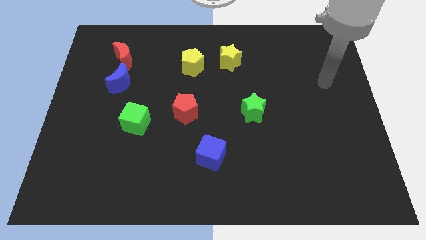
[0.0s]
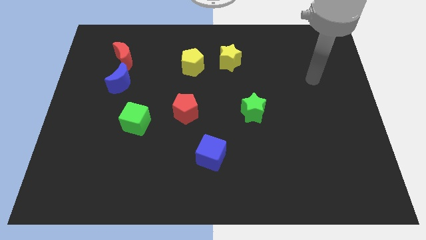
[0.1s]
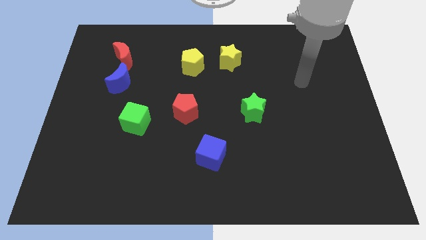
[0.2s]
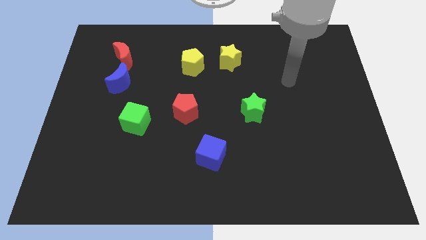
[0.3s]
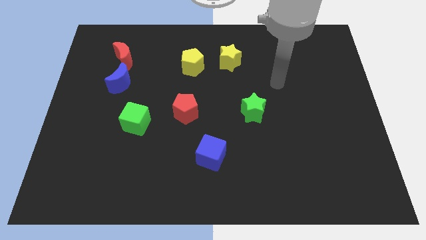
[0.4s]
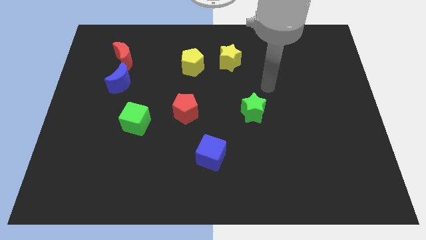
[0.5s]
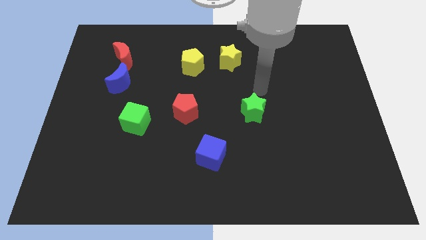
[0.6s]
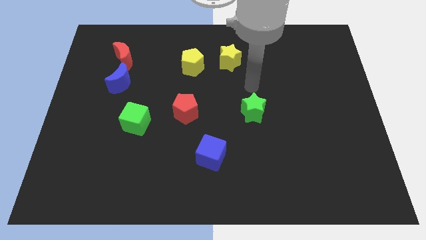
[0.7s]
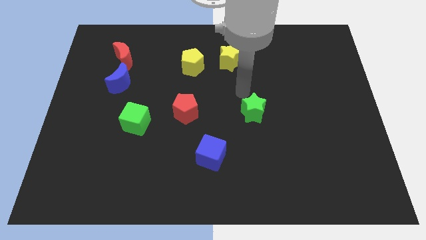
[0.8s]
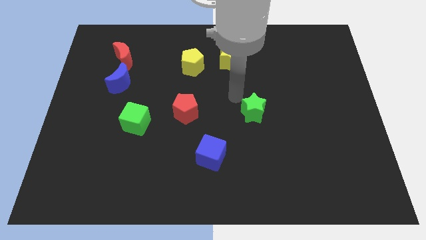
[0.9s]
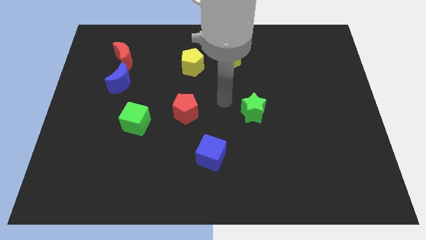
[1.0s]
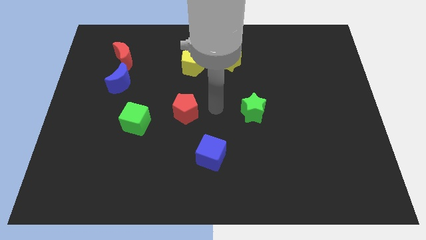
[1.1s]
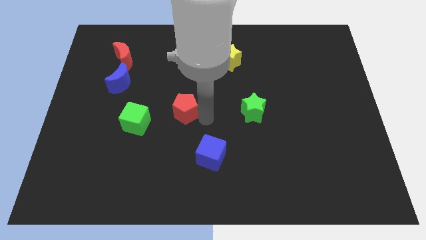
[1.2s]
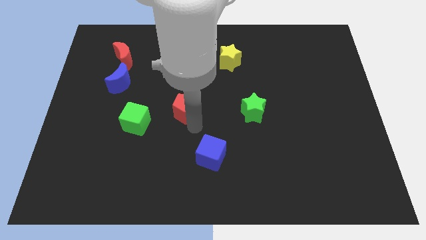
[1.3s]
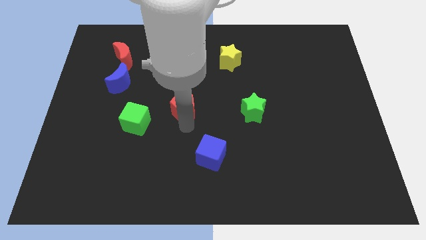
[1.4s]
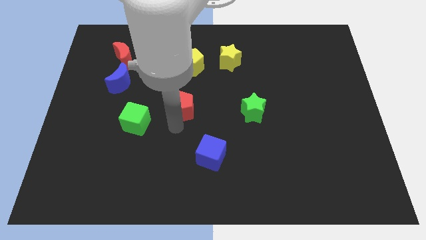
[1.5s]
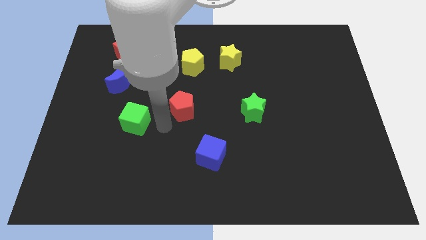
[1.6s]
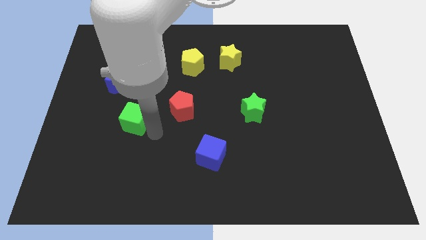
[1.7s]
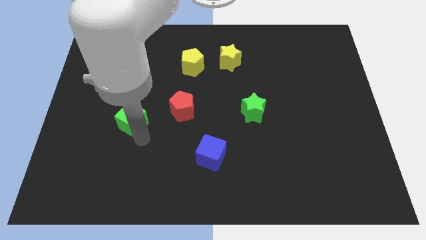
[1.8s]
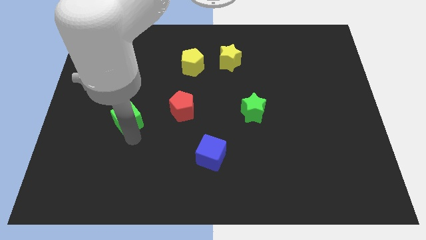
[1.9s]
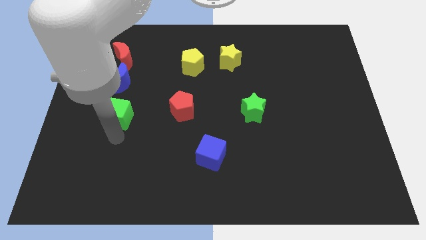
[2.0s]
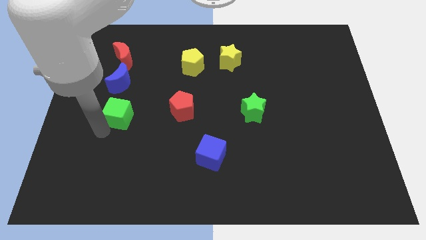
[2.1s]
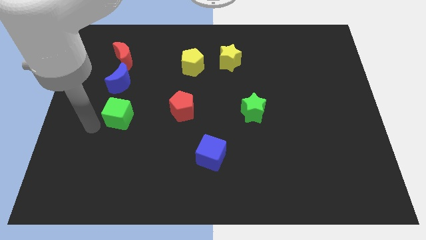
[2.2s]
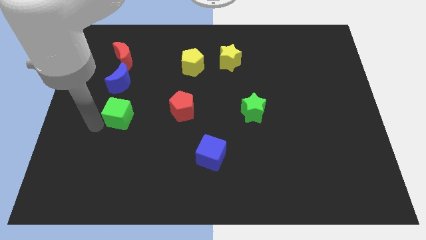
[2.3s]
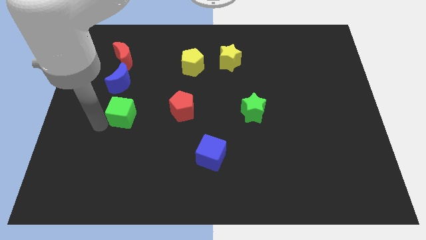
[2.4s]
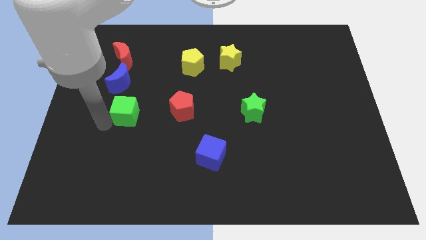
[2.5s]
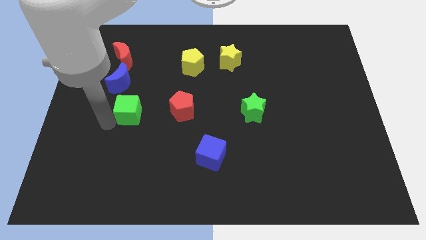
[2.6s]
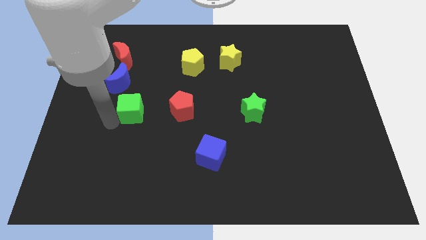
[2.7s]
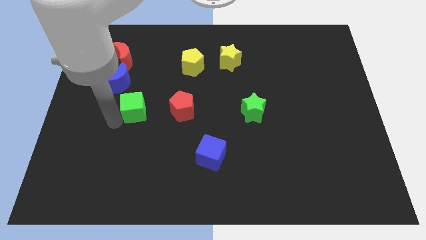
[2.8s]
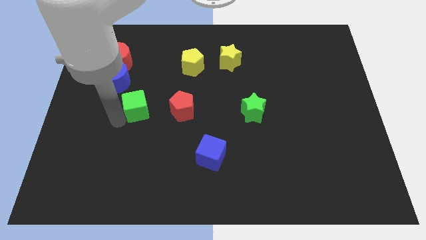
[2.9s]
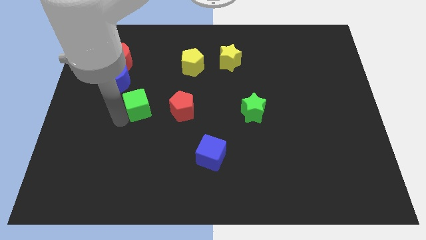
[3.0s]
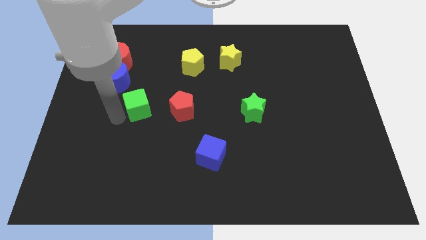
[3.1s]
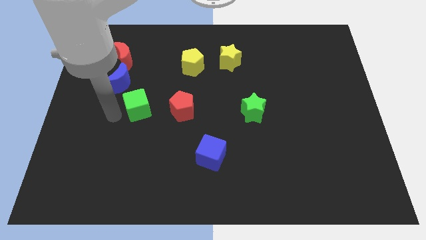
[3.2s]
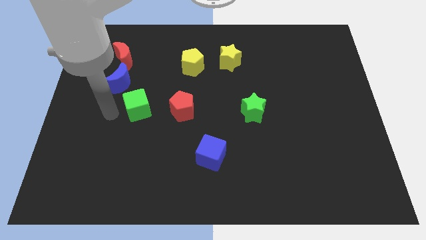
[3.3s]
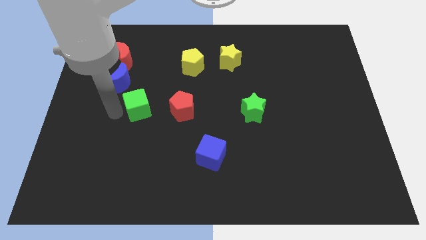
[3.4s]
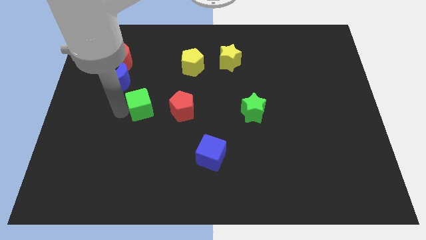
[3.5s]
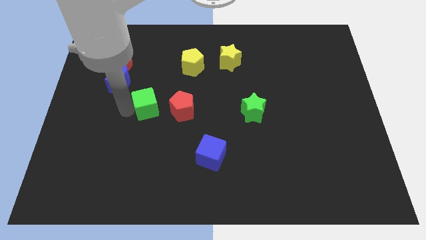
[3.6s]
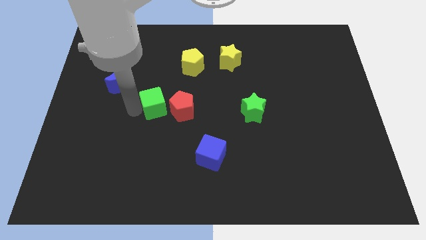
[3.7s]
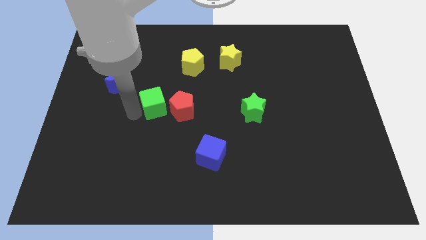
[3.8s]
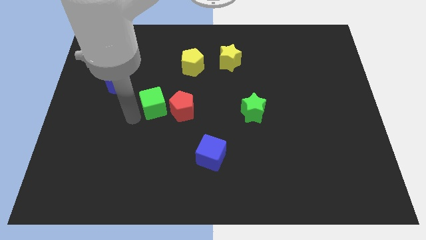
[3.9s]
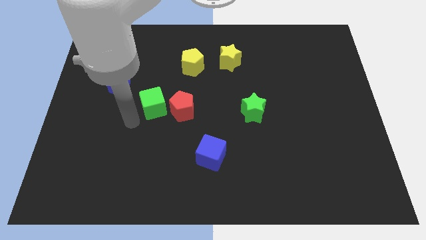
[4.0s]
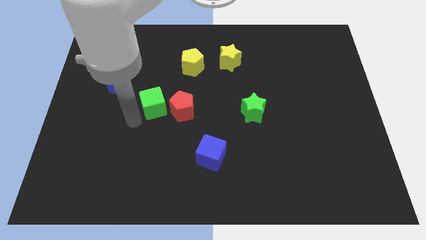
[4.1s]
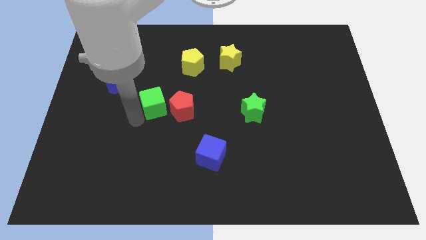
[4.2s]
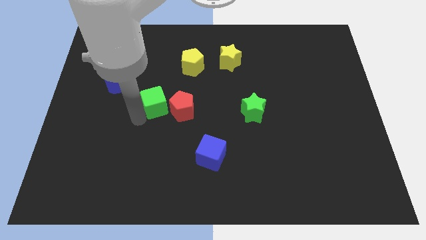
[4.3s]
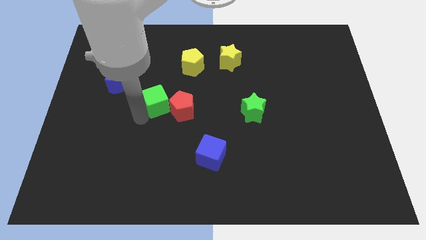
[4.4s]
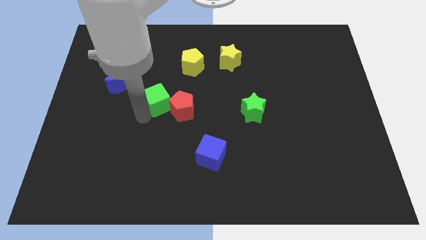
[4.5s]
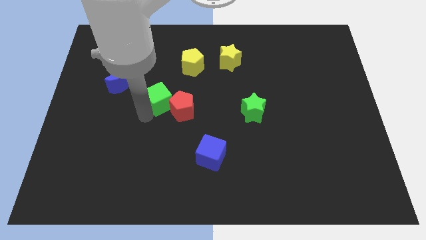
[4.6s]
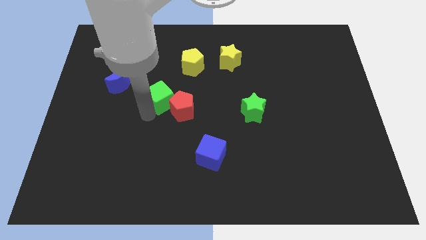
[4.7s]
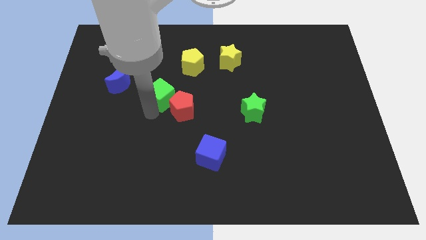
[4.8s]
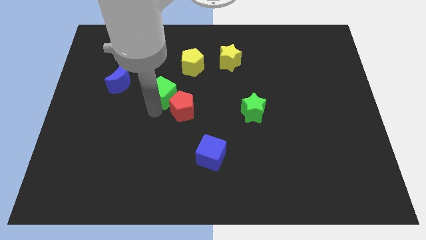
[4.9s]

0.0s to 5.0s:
push the green cube to the top side of the red pentagon

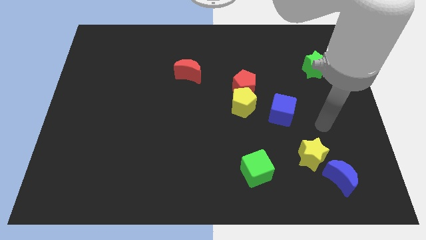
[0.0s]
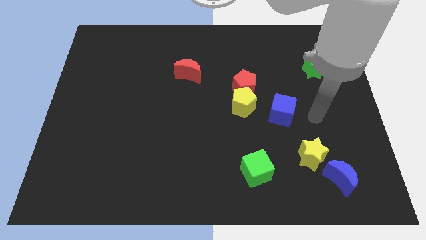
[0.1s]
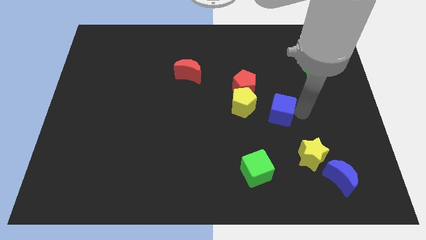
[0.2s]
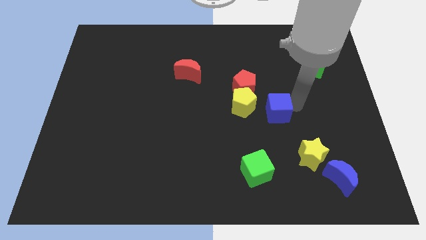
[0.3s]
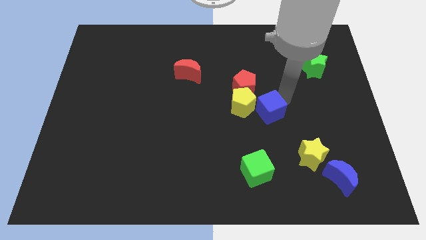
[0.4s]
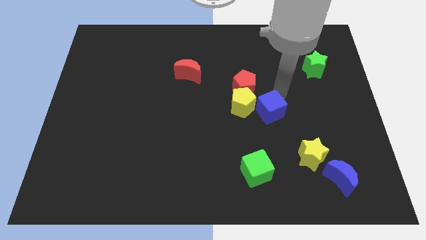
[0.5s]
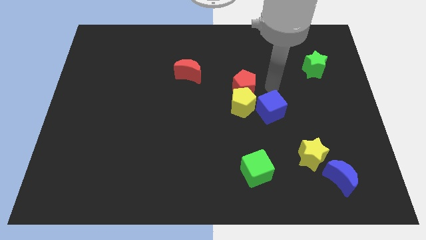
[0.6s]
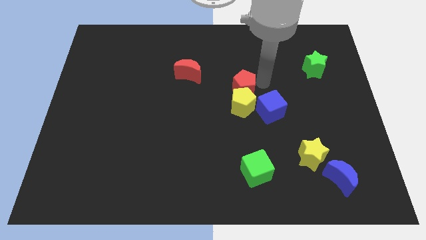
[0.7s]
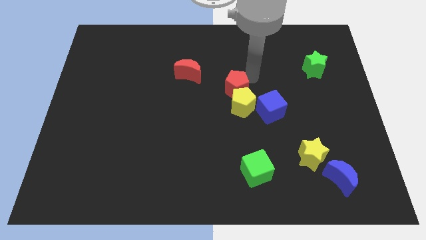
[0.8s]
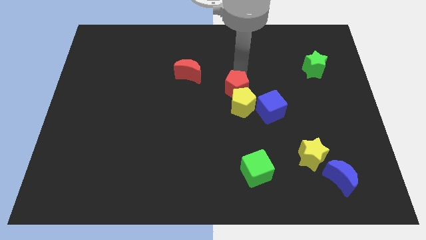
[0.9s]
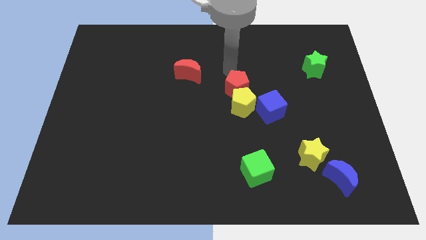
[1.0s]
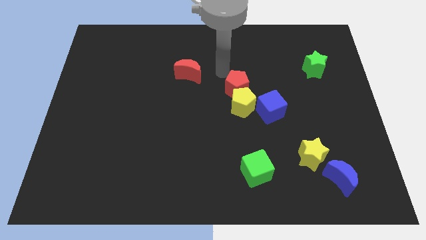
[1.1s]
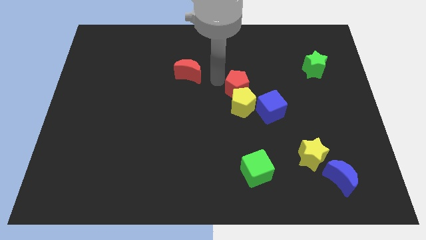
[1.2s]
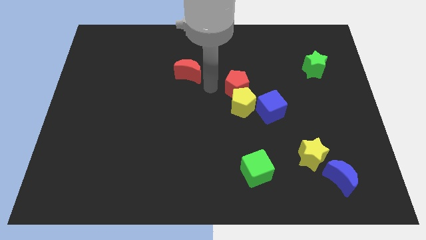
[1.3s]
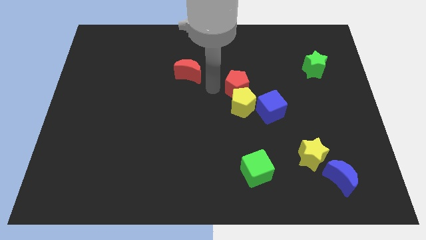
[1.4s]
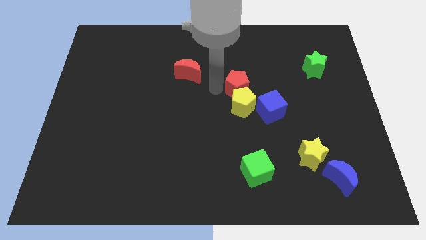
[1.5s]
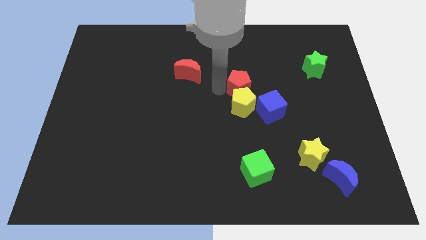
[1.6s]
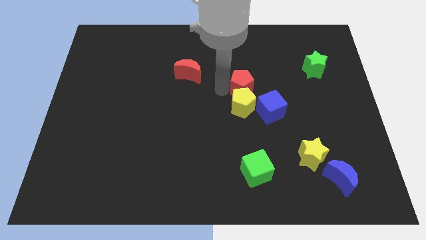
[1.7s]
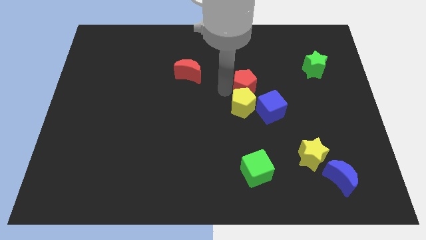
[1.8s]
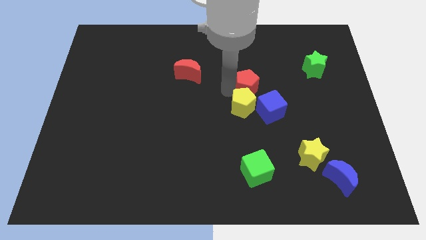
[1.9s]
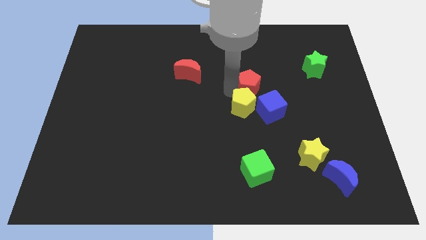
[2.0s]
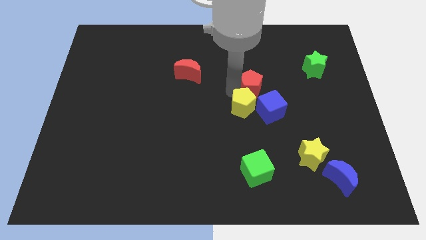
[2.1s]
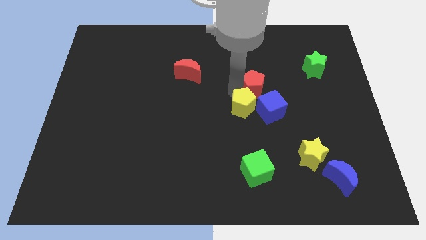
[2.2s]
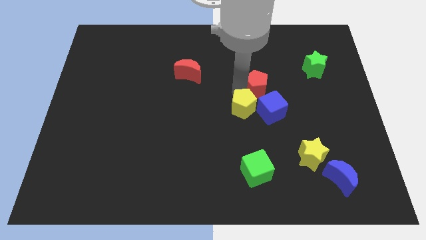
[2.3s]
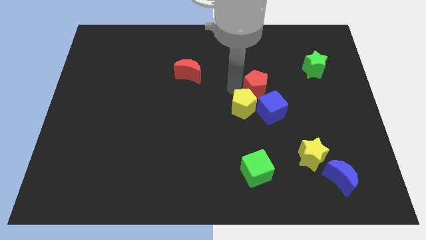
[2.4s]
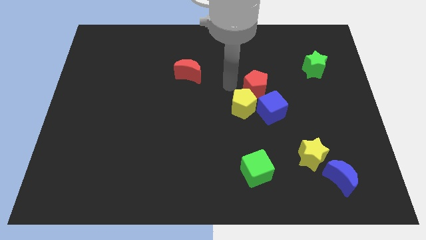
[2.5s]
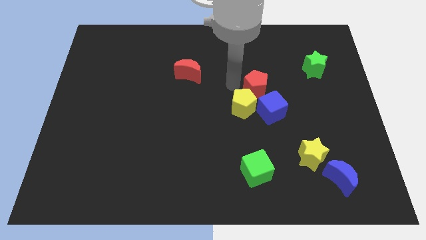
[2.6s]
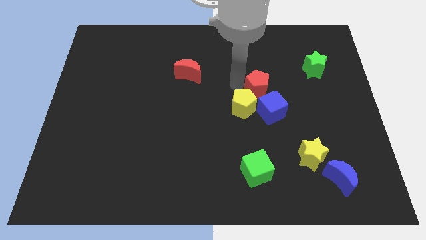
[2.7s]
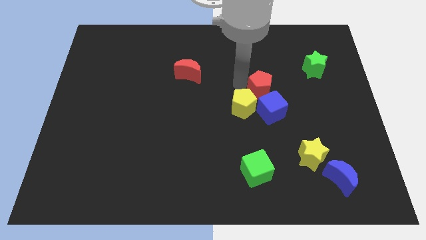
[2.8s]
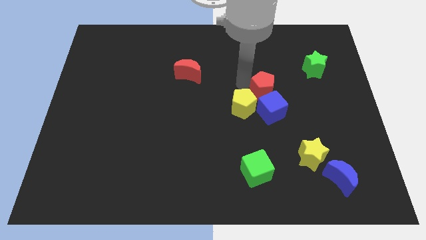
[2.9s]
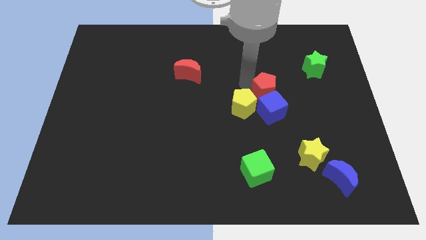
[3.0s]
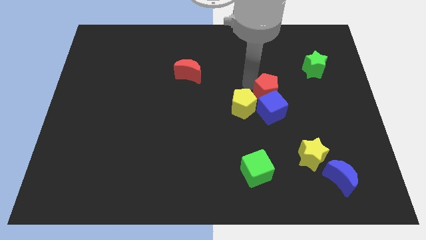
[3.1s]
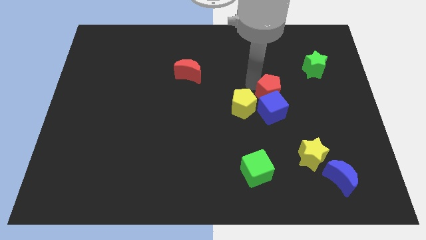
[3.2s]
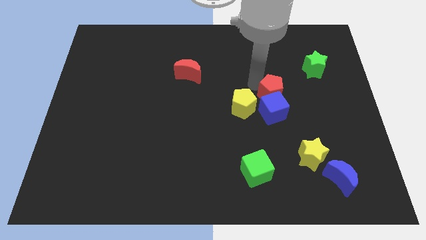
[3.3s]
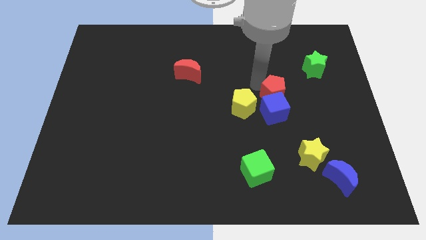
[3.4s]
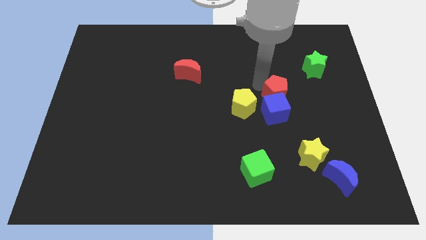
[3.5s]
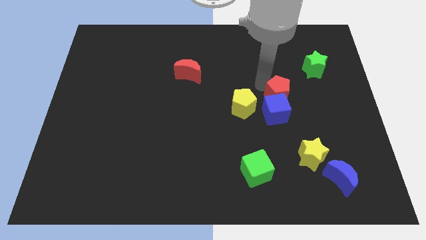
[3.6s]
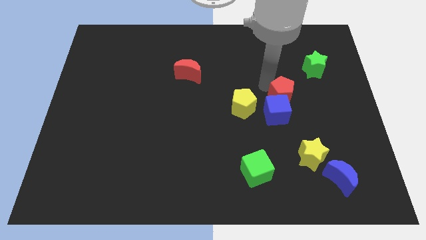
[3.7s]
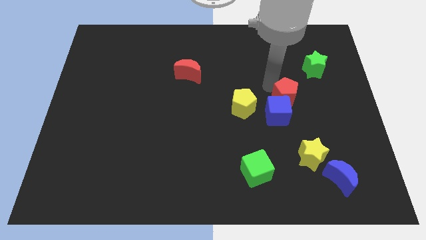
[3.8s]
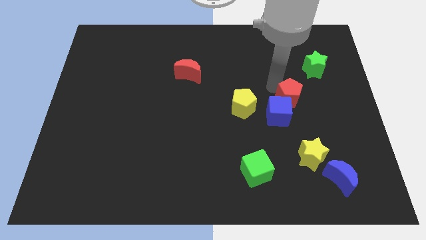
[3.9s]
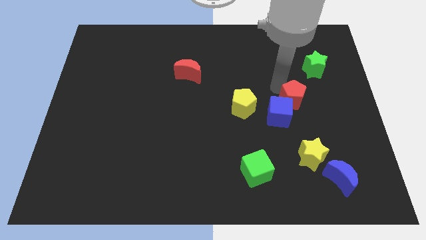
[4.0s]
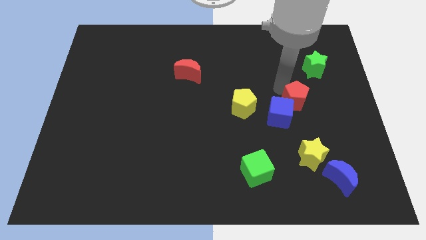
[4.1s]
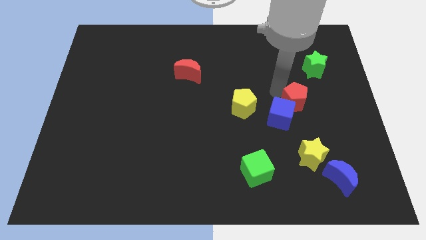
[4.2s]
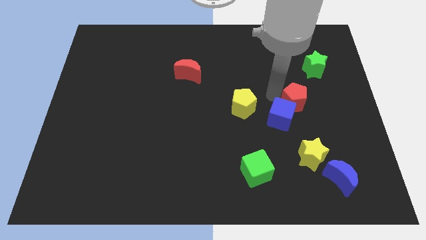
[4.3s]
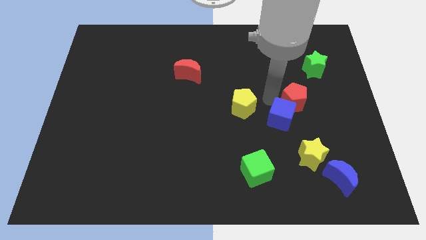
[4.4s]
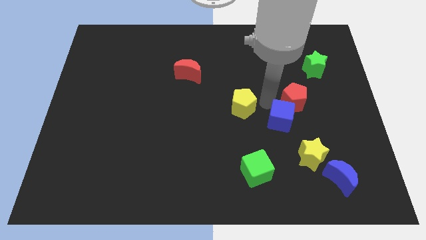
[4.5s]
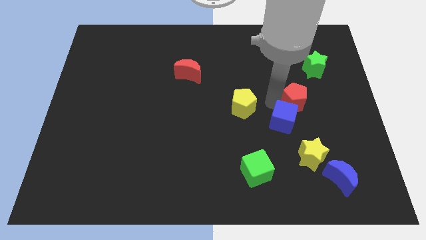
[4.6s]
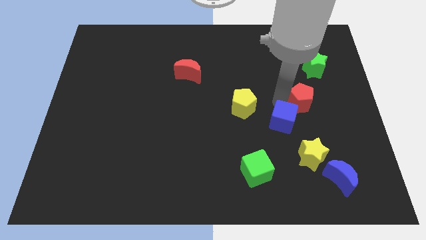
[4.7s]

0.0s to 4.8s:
slide the red pentagon below the green star
